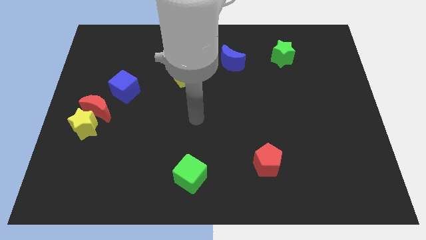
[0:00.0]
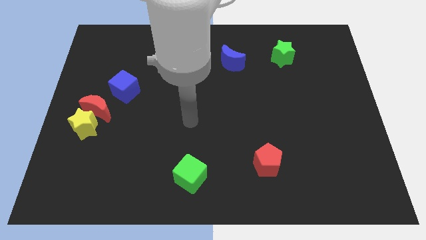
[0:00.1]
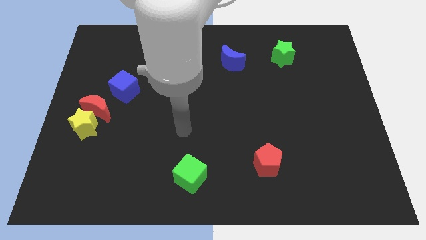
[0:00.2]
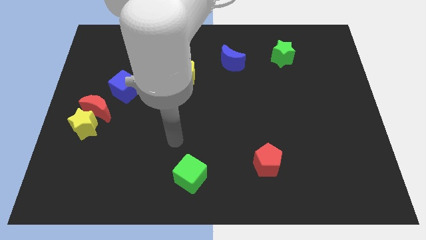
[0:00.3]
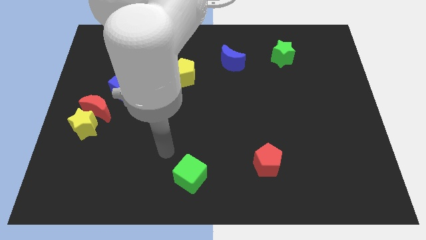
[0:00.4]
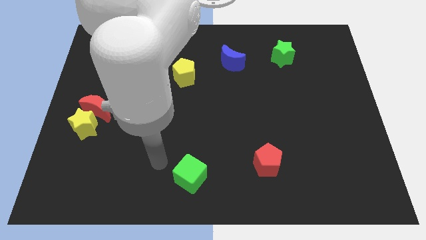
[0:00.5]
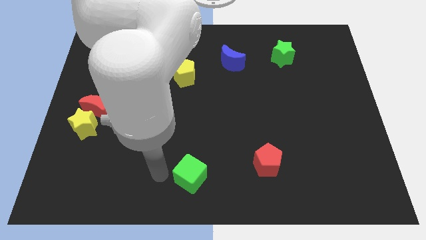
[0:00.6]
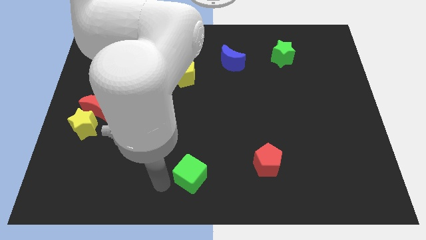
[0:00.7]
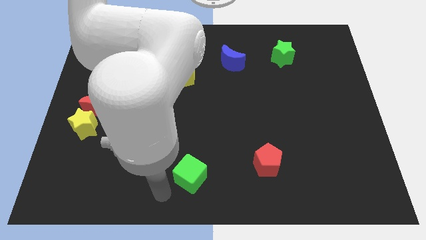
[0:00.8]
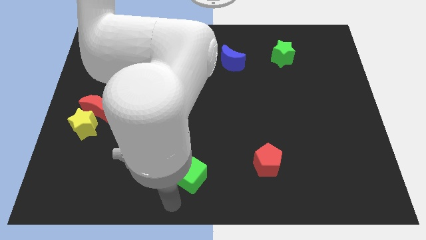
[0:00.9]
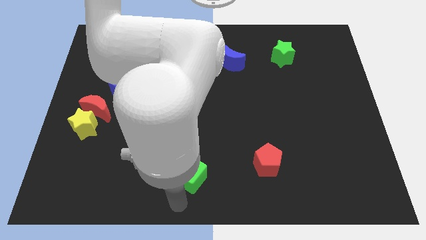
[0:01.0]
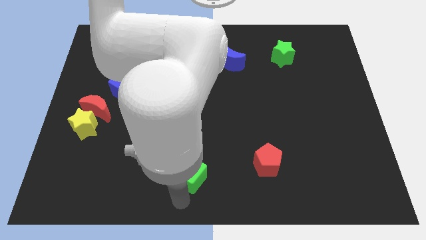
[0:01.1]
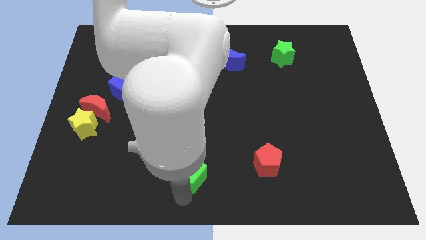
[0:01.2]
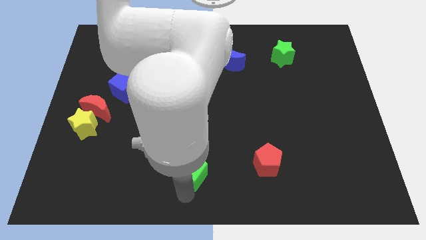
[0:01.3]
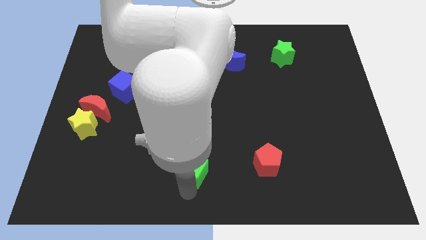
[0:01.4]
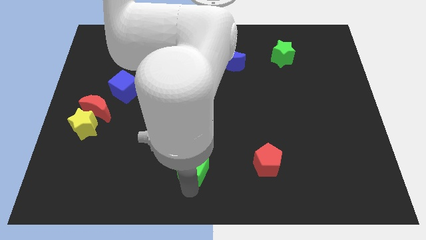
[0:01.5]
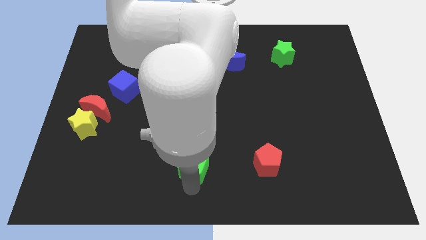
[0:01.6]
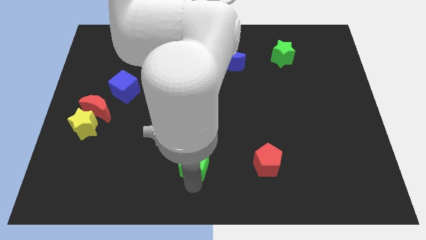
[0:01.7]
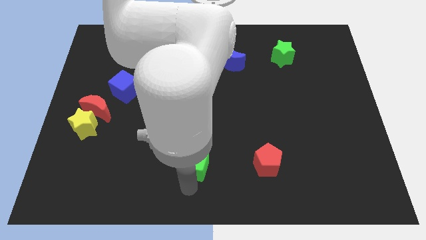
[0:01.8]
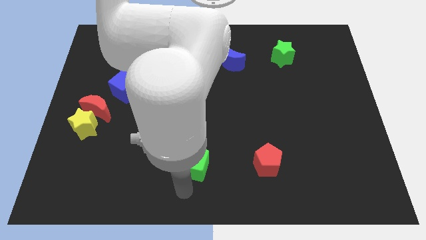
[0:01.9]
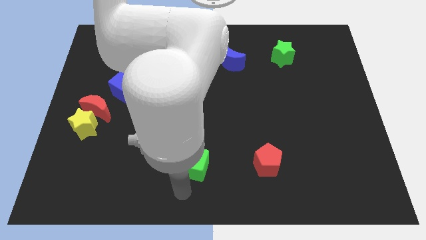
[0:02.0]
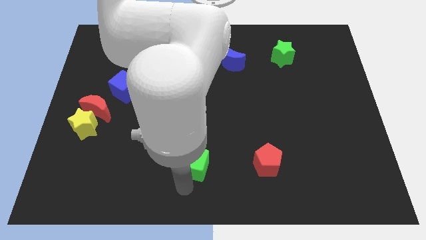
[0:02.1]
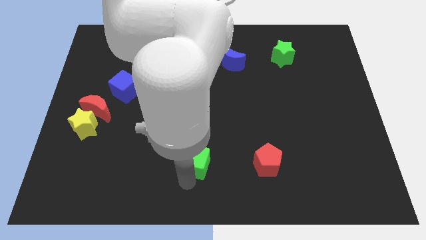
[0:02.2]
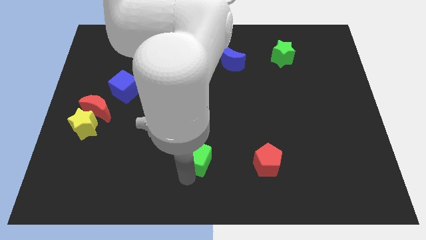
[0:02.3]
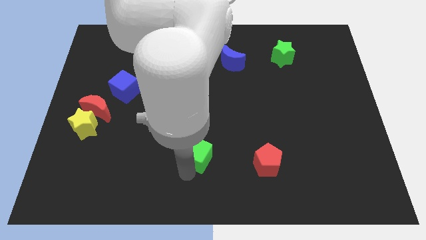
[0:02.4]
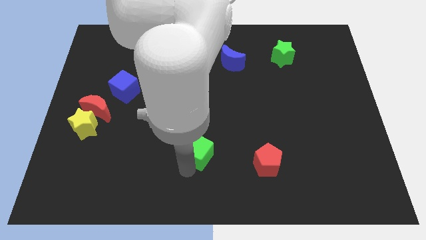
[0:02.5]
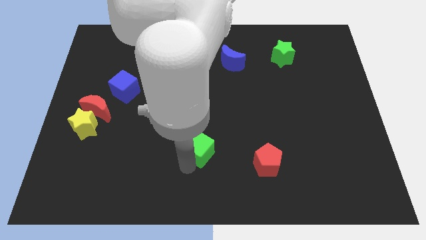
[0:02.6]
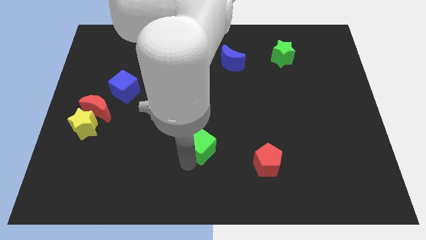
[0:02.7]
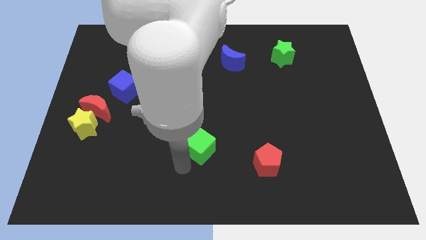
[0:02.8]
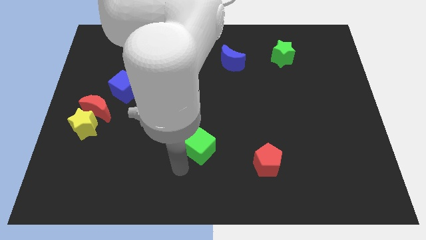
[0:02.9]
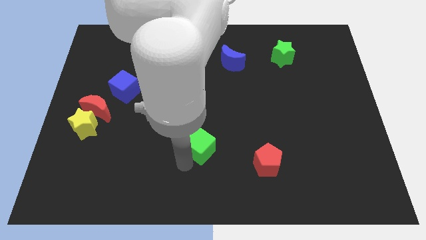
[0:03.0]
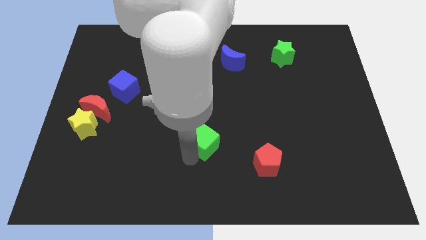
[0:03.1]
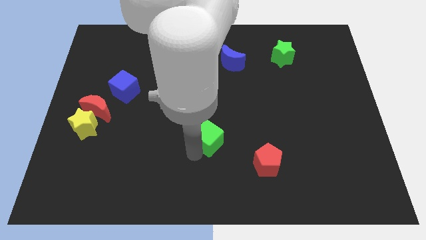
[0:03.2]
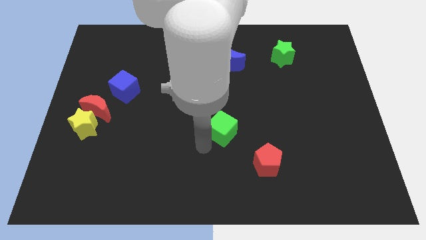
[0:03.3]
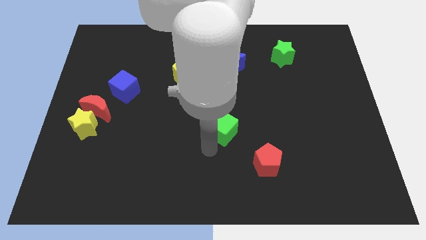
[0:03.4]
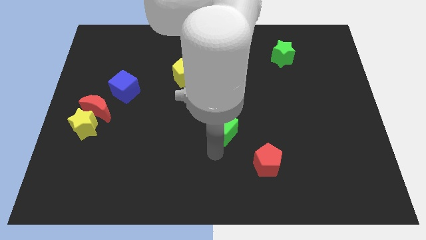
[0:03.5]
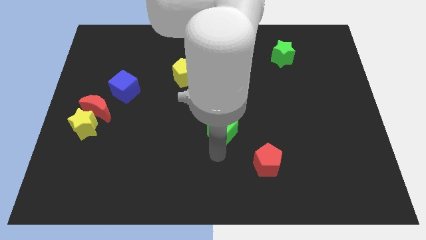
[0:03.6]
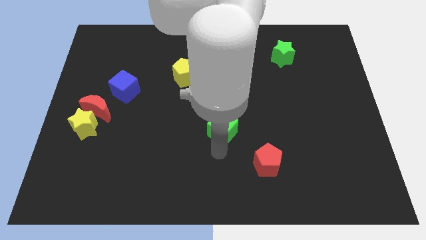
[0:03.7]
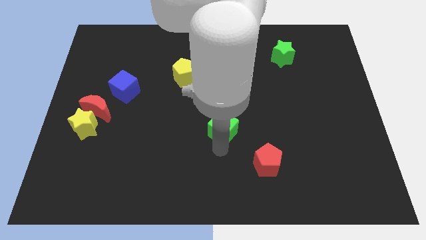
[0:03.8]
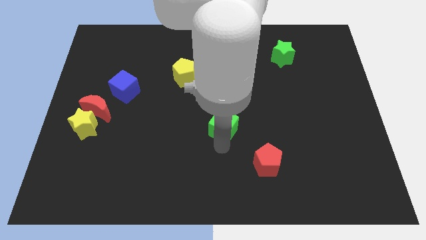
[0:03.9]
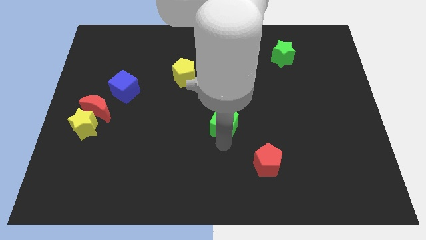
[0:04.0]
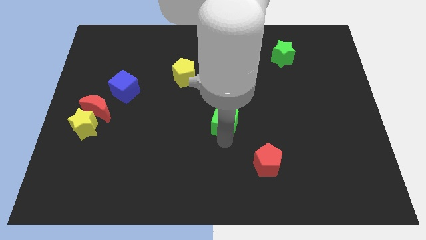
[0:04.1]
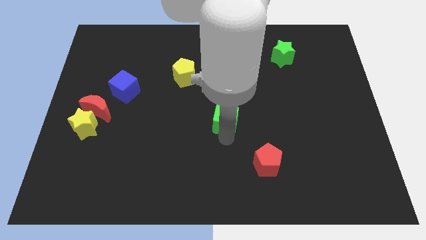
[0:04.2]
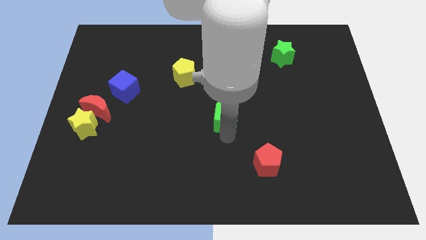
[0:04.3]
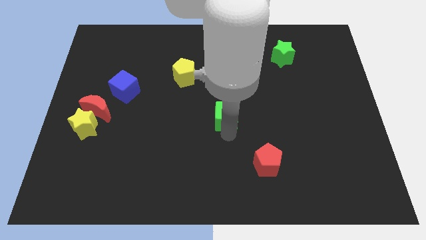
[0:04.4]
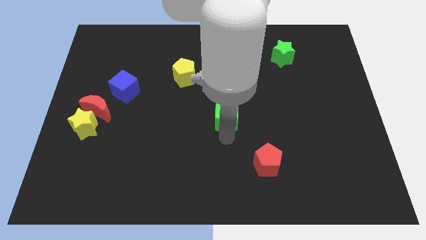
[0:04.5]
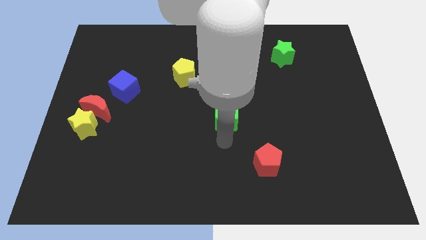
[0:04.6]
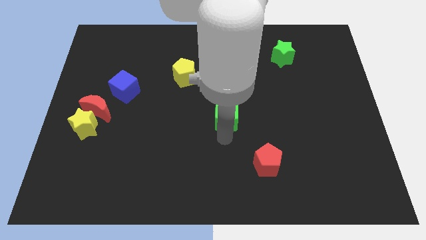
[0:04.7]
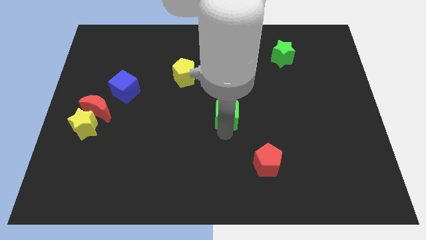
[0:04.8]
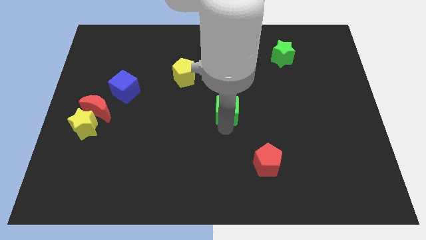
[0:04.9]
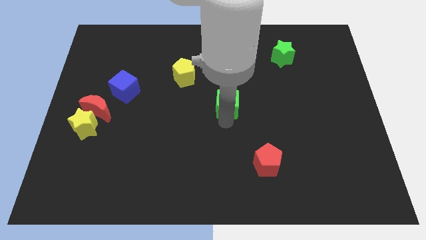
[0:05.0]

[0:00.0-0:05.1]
put the green cube to the bottom side of the blue moon

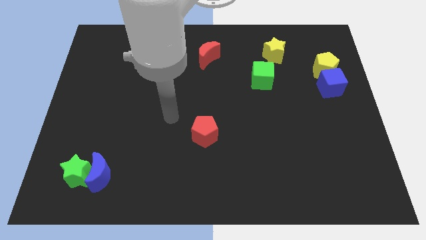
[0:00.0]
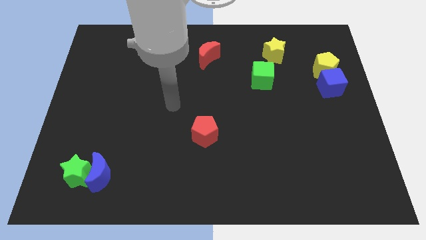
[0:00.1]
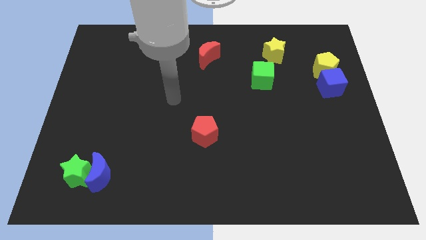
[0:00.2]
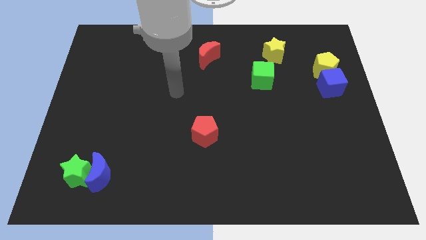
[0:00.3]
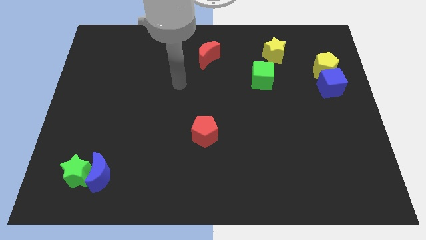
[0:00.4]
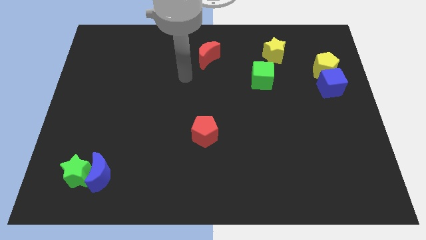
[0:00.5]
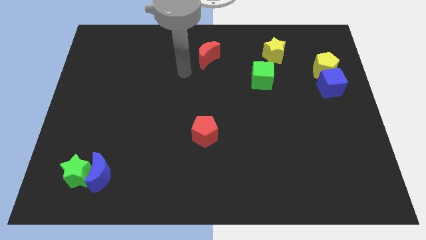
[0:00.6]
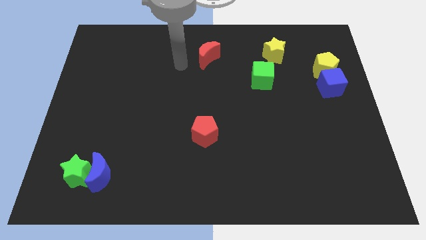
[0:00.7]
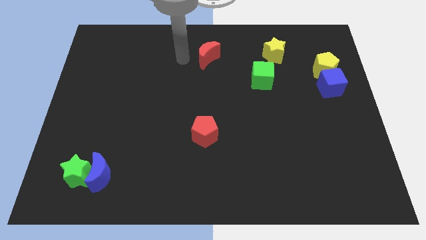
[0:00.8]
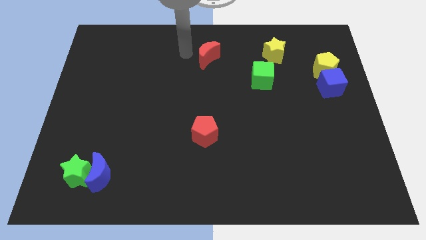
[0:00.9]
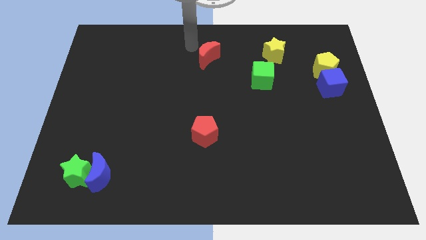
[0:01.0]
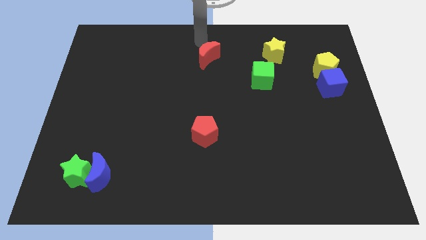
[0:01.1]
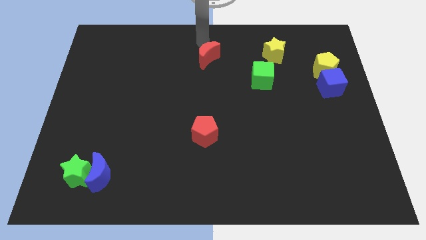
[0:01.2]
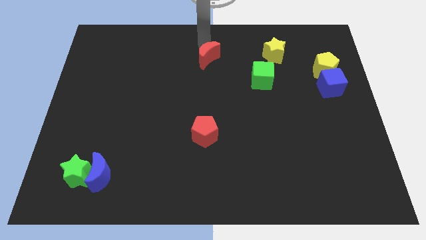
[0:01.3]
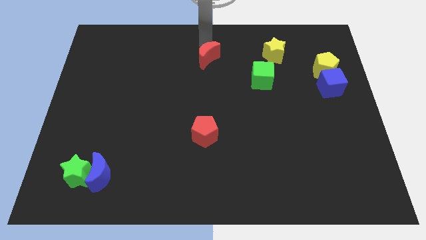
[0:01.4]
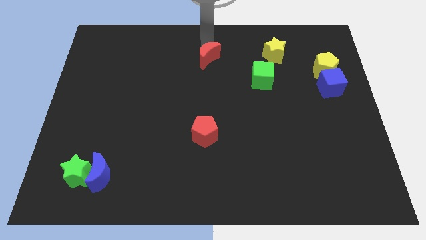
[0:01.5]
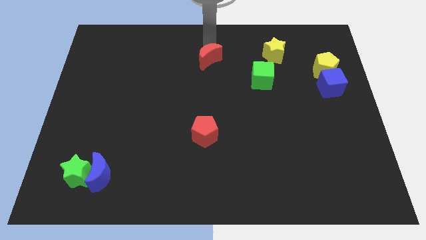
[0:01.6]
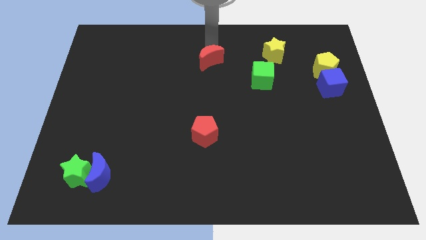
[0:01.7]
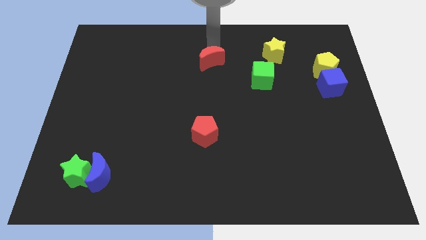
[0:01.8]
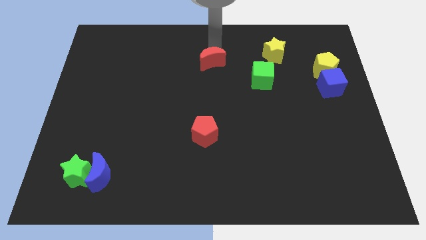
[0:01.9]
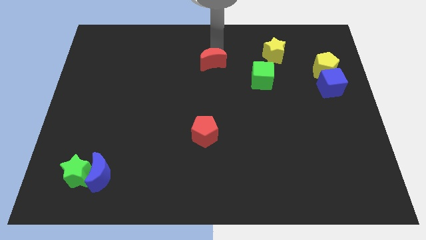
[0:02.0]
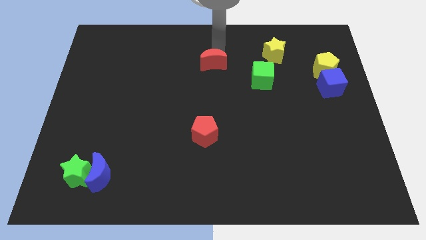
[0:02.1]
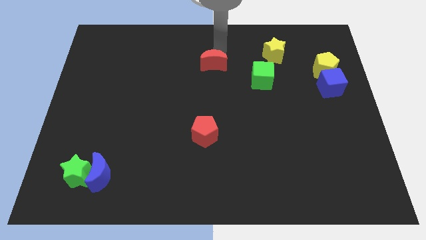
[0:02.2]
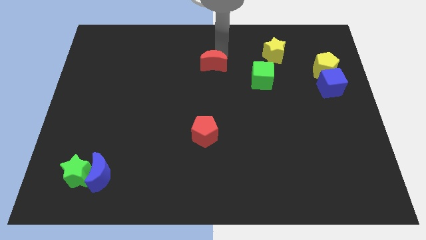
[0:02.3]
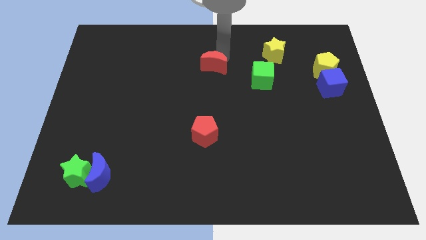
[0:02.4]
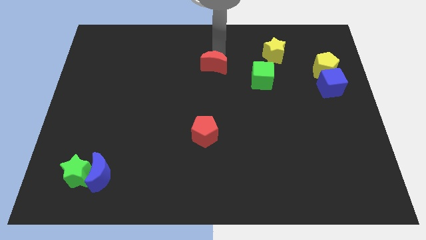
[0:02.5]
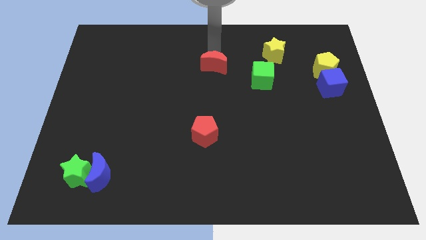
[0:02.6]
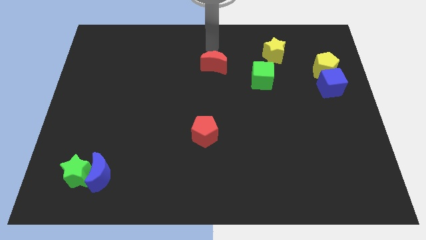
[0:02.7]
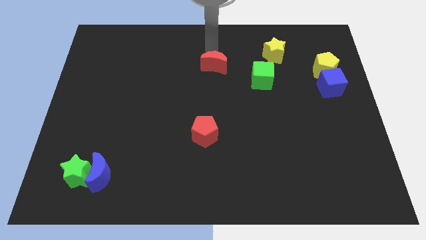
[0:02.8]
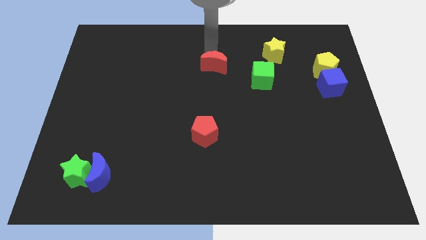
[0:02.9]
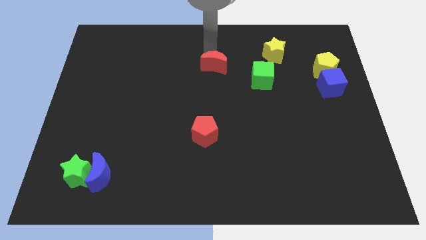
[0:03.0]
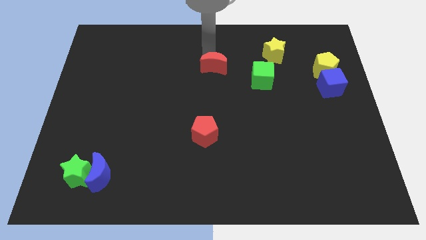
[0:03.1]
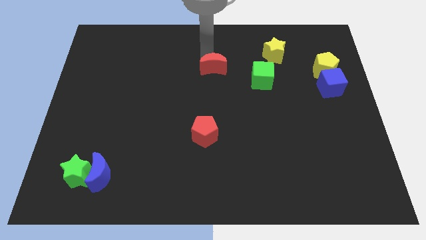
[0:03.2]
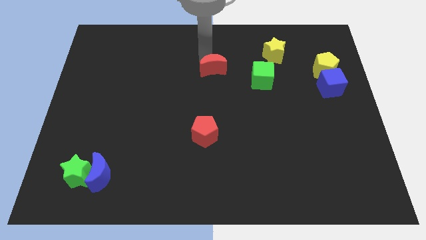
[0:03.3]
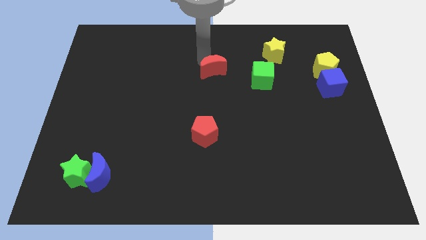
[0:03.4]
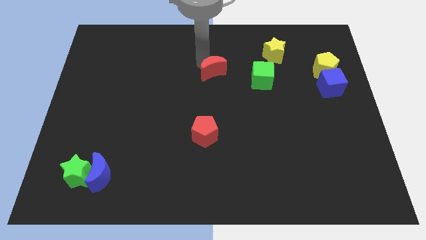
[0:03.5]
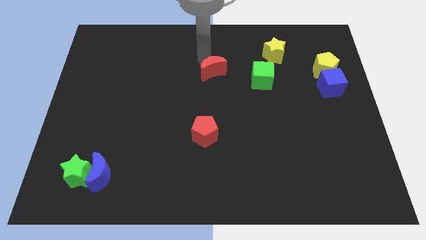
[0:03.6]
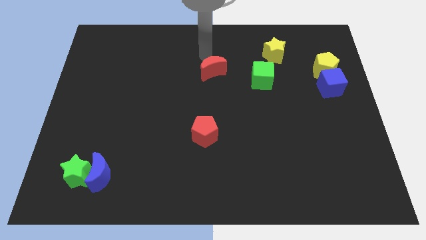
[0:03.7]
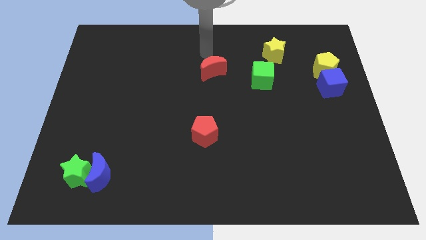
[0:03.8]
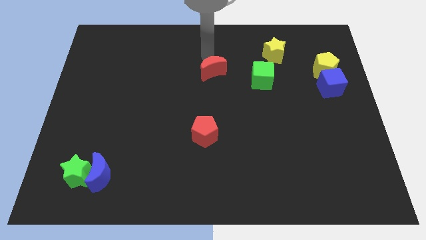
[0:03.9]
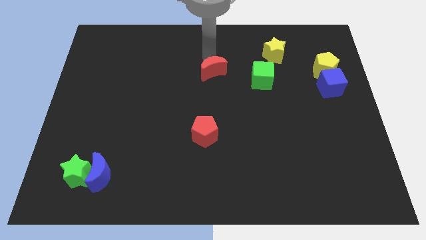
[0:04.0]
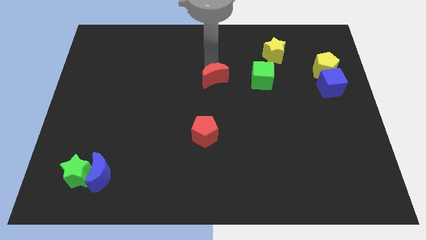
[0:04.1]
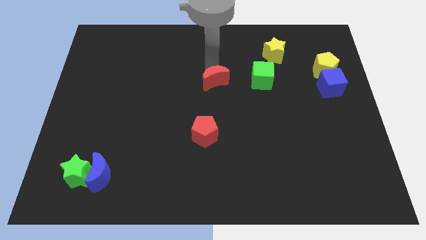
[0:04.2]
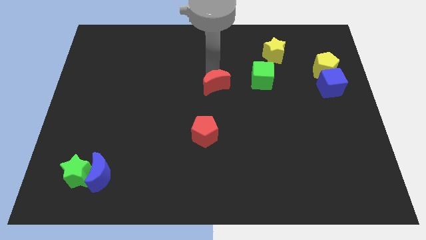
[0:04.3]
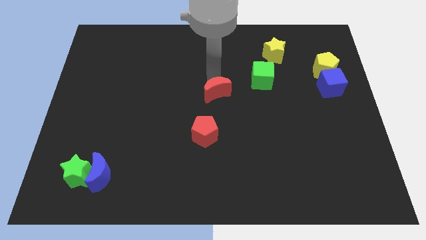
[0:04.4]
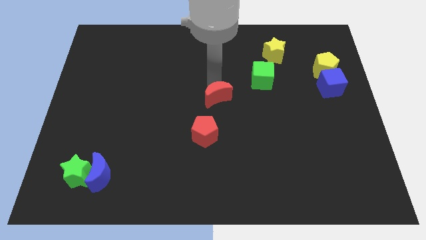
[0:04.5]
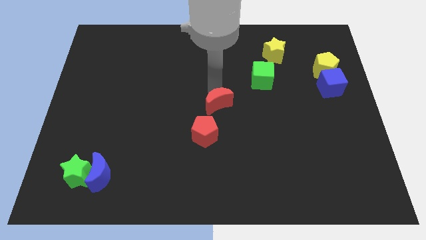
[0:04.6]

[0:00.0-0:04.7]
slide the red moon diagonally up and to the right of the red pentagon
